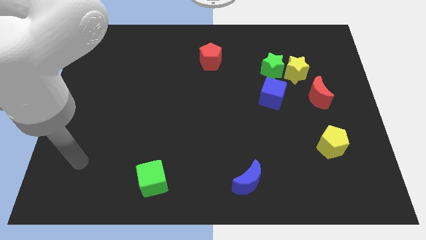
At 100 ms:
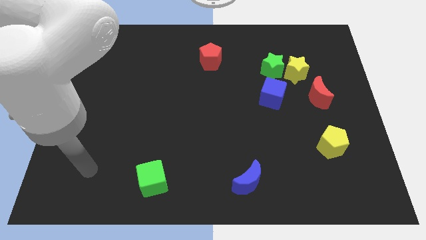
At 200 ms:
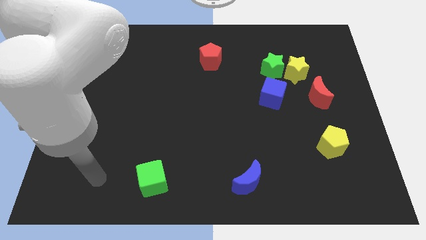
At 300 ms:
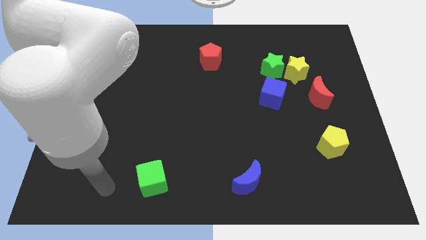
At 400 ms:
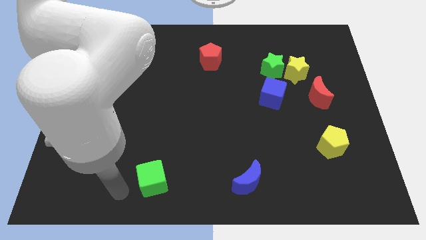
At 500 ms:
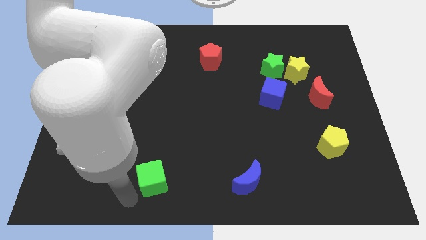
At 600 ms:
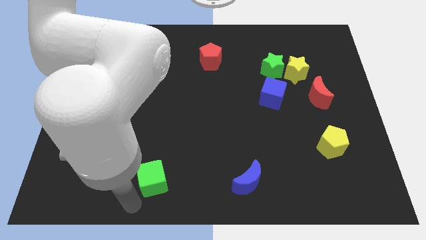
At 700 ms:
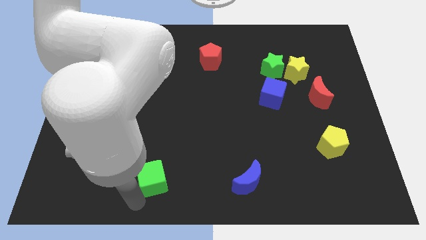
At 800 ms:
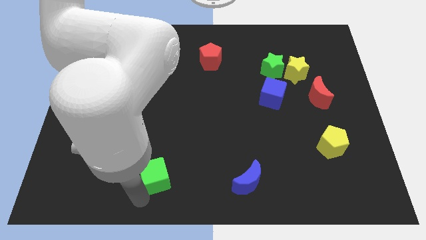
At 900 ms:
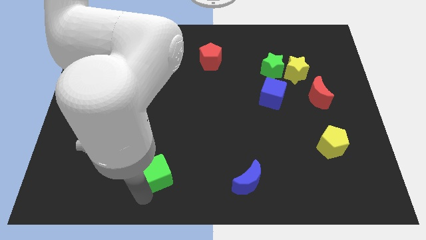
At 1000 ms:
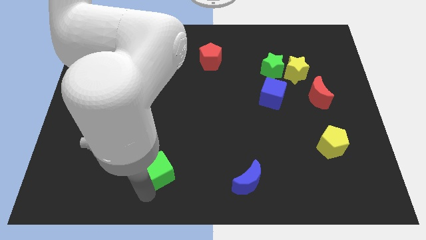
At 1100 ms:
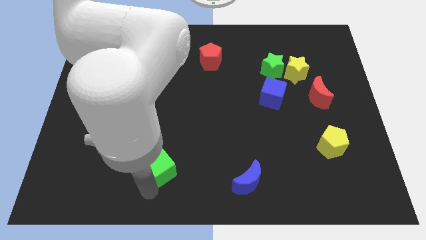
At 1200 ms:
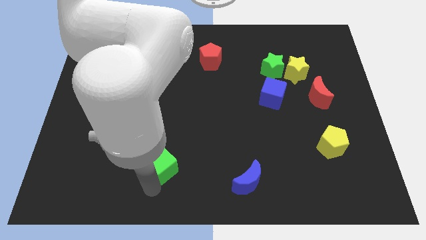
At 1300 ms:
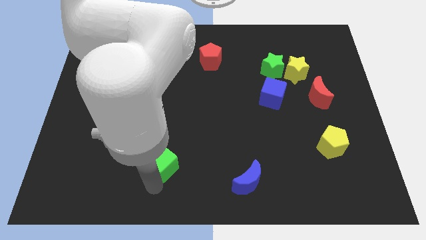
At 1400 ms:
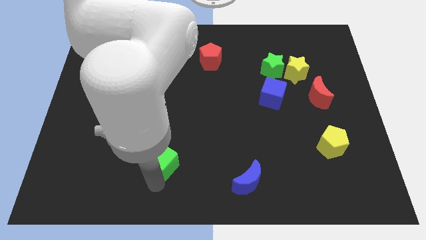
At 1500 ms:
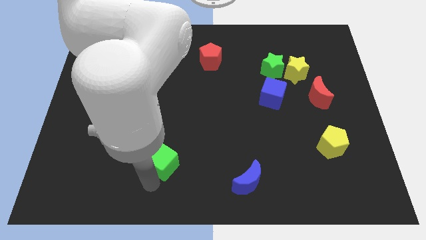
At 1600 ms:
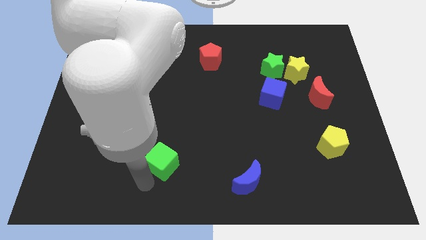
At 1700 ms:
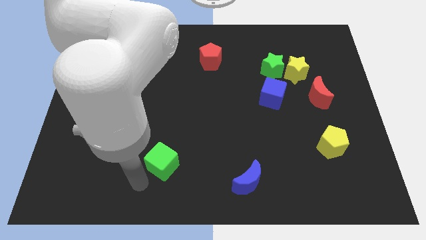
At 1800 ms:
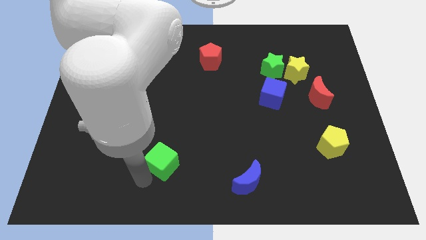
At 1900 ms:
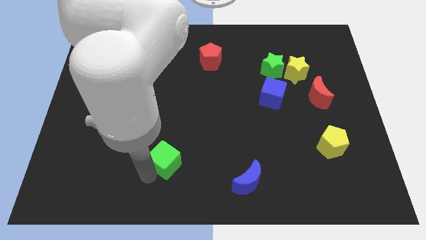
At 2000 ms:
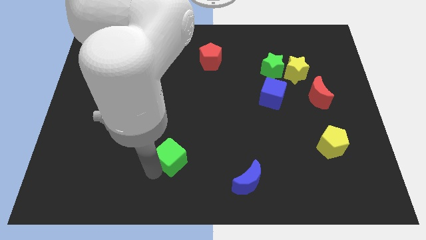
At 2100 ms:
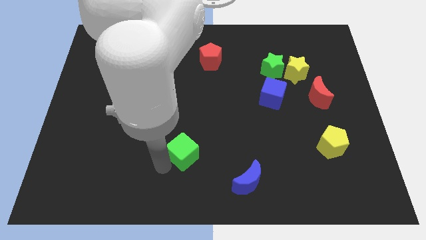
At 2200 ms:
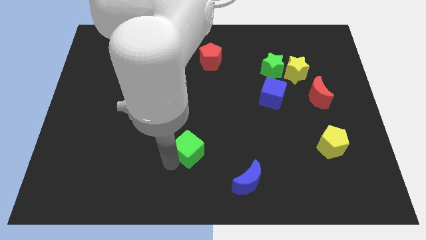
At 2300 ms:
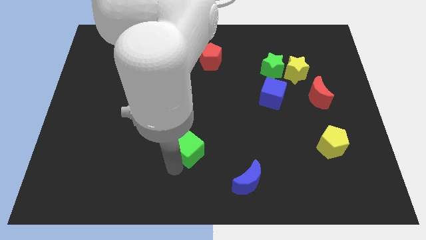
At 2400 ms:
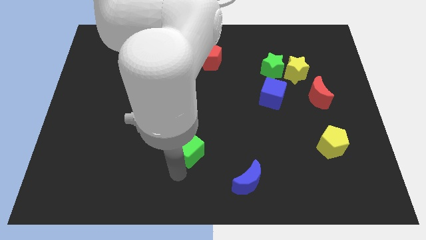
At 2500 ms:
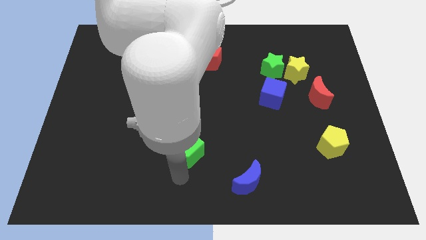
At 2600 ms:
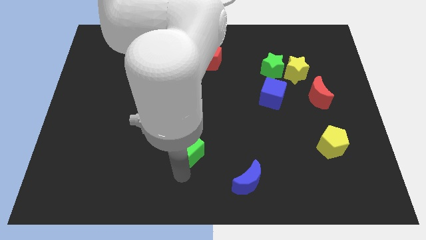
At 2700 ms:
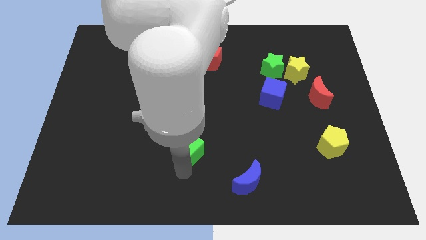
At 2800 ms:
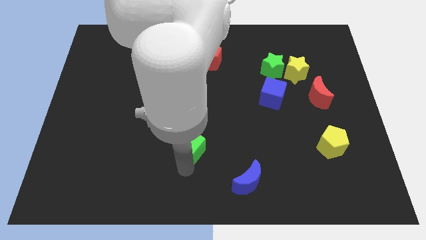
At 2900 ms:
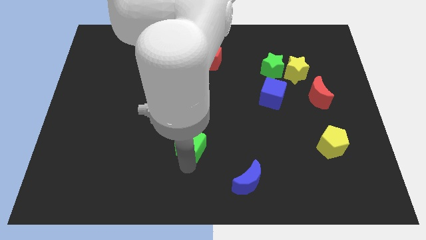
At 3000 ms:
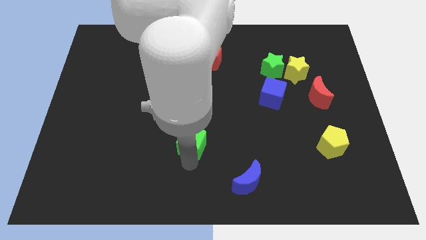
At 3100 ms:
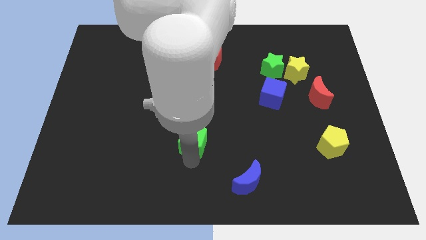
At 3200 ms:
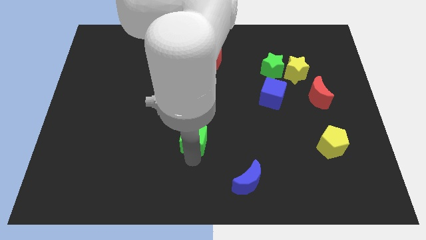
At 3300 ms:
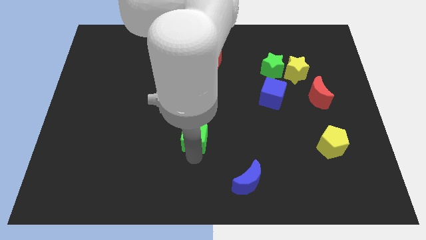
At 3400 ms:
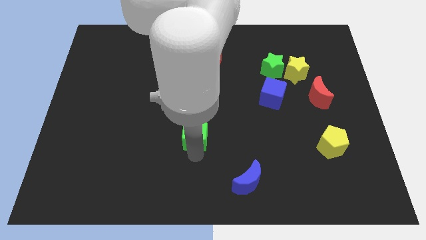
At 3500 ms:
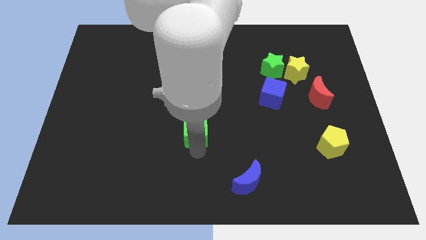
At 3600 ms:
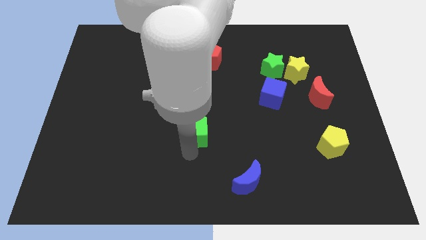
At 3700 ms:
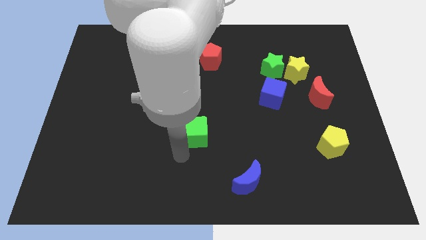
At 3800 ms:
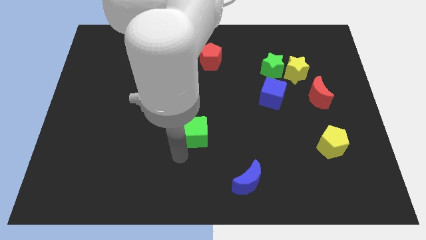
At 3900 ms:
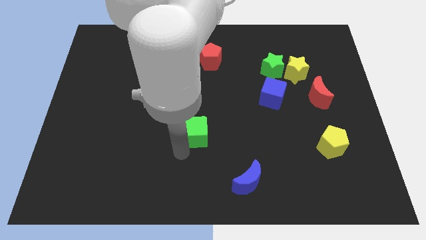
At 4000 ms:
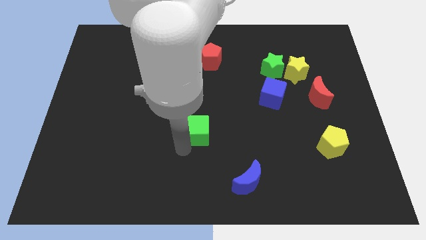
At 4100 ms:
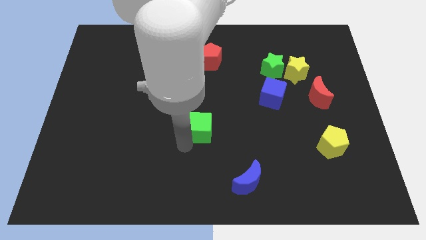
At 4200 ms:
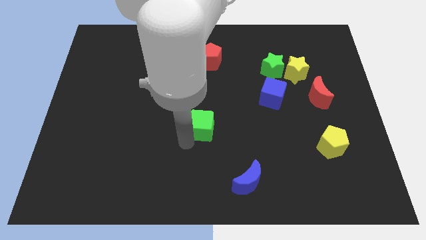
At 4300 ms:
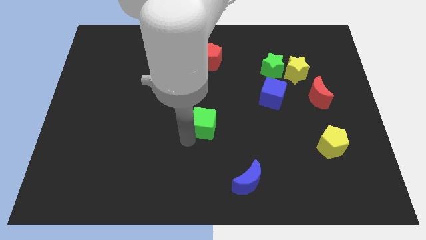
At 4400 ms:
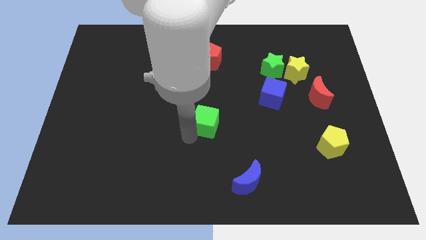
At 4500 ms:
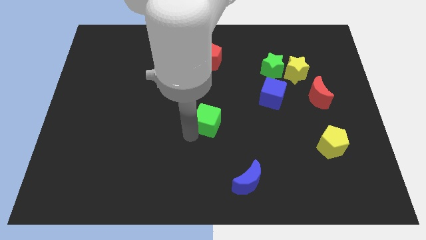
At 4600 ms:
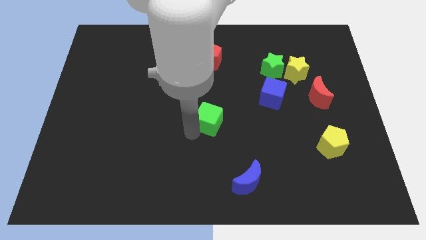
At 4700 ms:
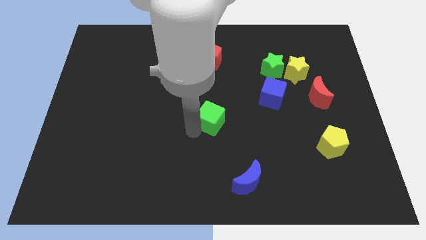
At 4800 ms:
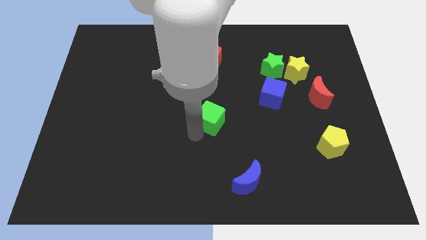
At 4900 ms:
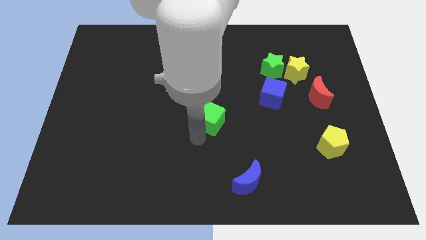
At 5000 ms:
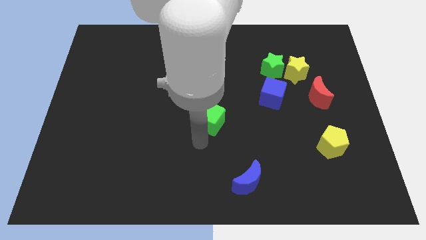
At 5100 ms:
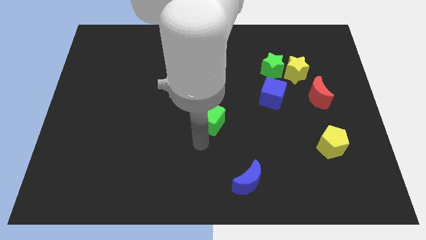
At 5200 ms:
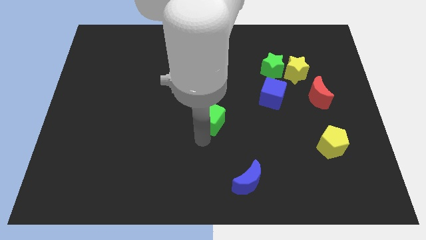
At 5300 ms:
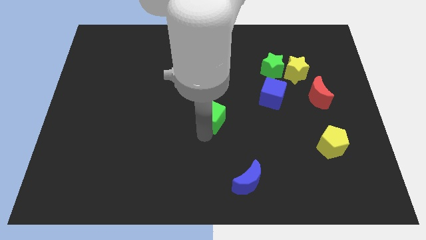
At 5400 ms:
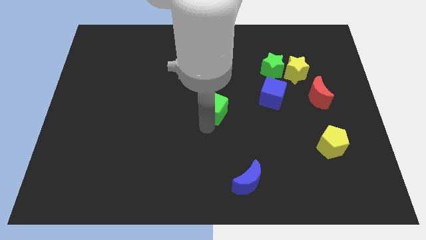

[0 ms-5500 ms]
push the green cube just left of the blue cube

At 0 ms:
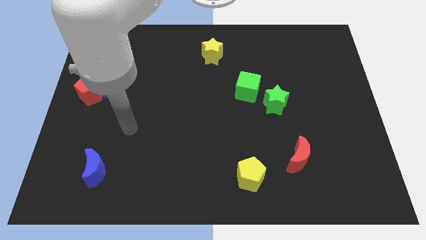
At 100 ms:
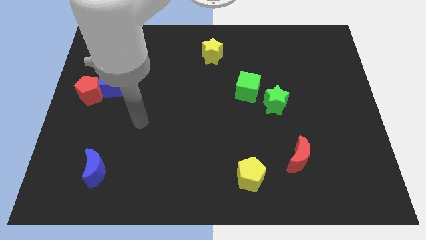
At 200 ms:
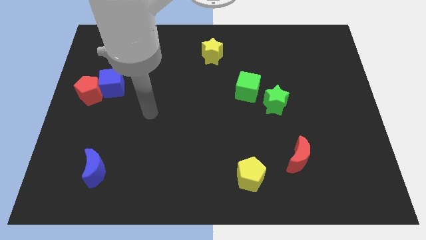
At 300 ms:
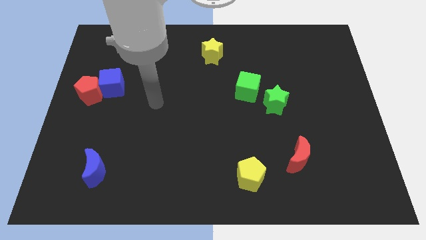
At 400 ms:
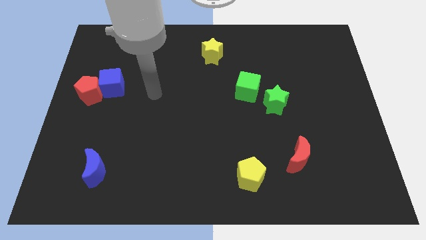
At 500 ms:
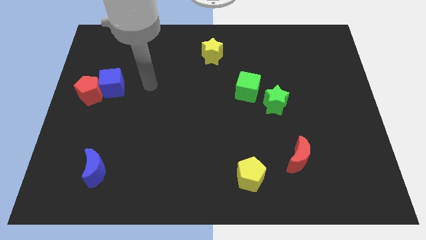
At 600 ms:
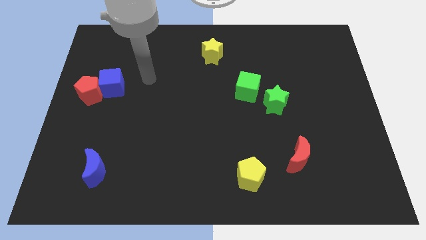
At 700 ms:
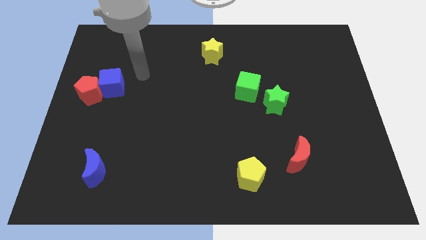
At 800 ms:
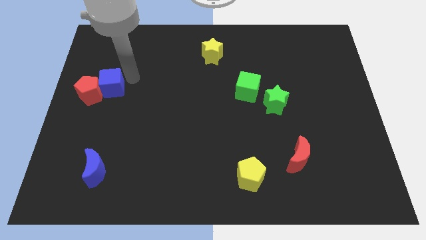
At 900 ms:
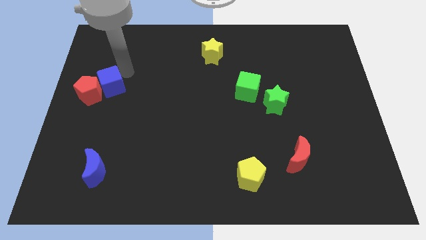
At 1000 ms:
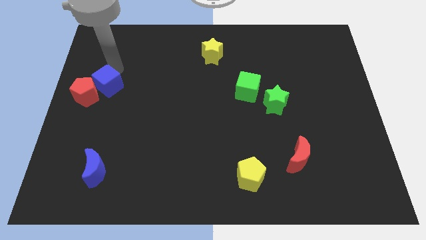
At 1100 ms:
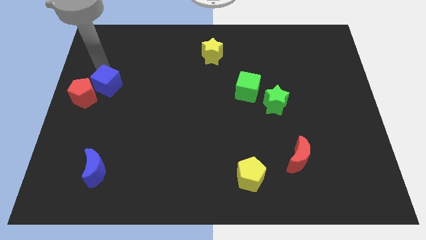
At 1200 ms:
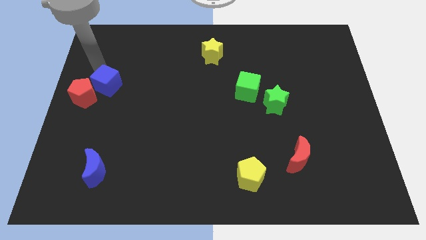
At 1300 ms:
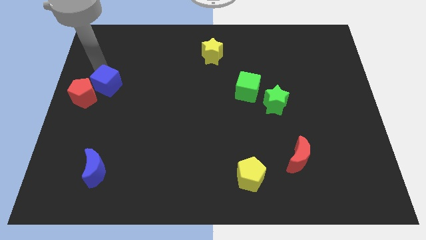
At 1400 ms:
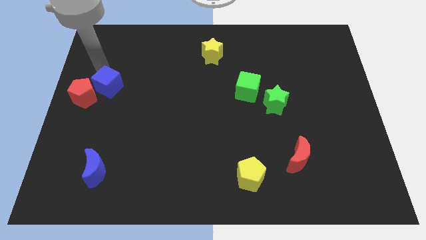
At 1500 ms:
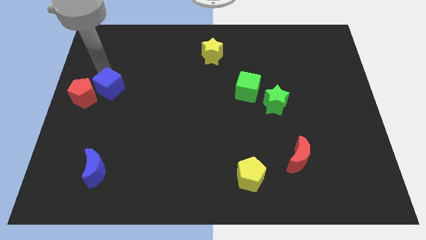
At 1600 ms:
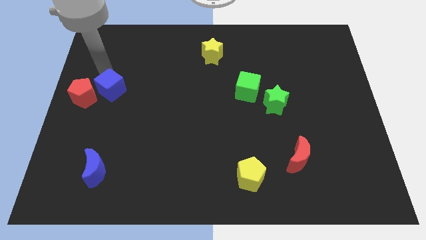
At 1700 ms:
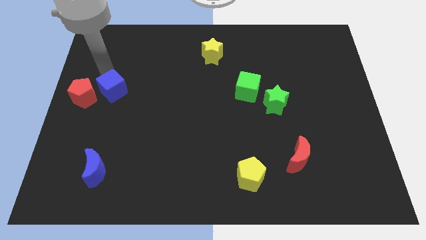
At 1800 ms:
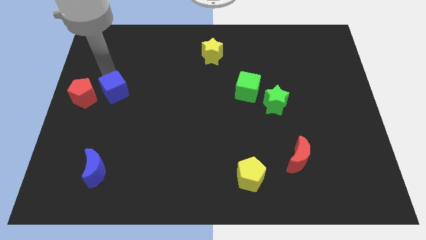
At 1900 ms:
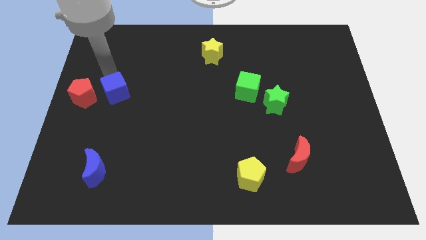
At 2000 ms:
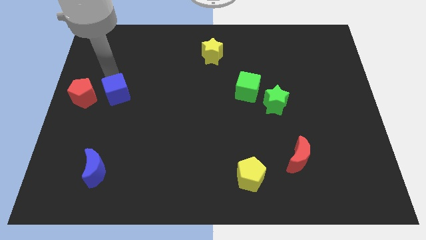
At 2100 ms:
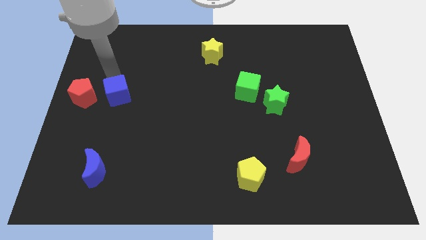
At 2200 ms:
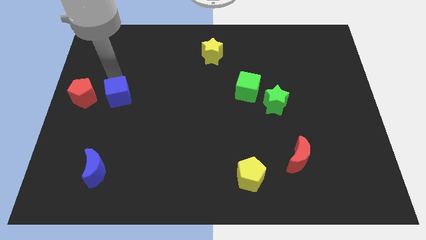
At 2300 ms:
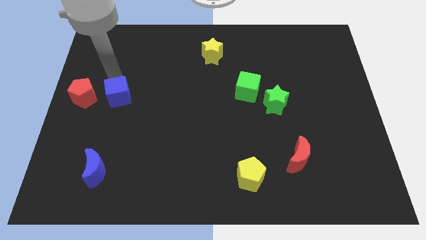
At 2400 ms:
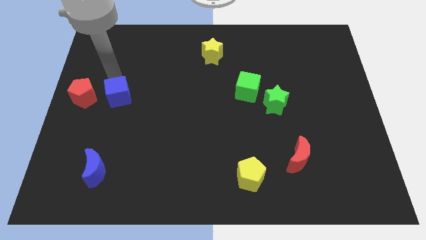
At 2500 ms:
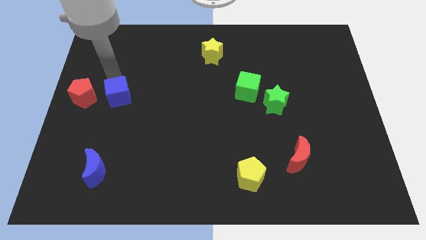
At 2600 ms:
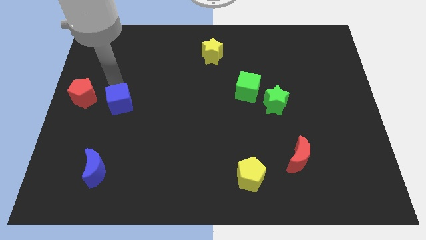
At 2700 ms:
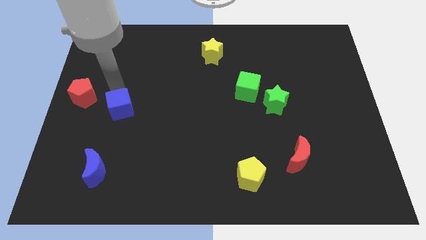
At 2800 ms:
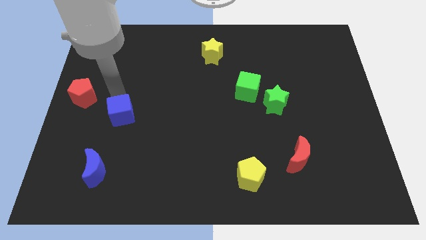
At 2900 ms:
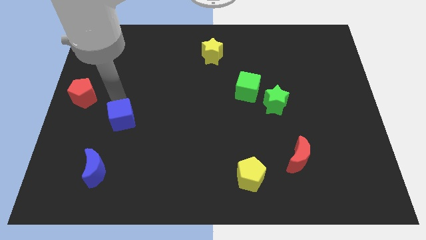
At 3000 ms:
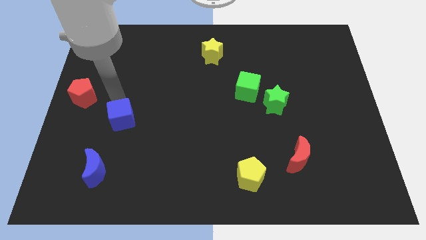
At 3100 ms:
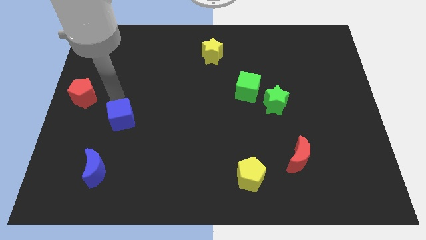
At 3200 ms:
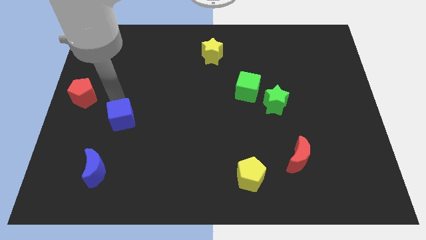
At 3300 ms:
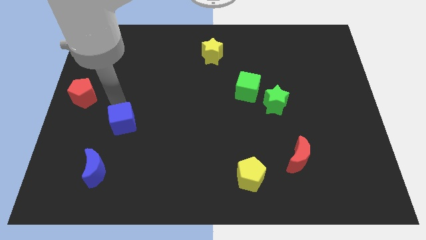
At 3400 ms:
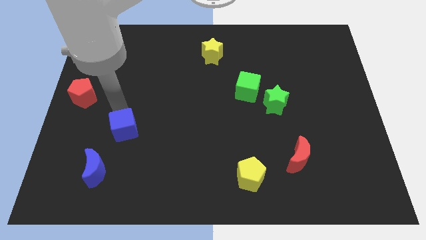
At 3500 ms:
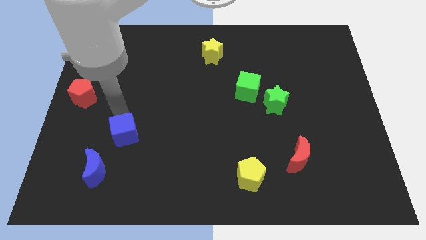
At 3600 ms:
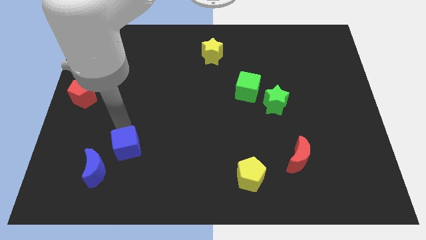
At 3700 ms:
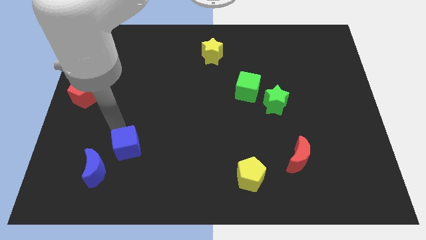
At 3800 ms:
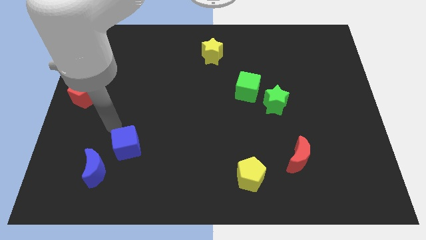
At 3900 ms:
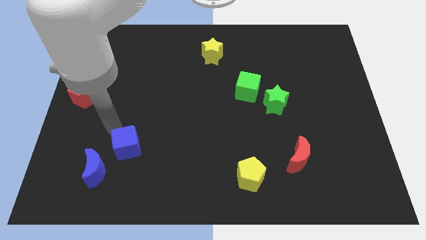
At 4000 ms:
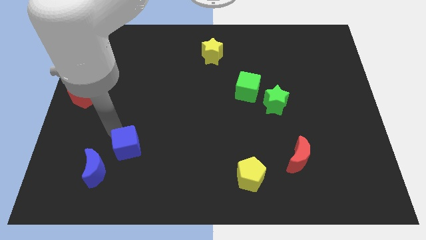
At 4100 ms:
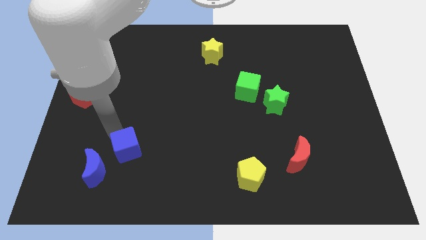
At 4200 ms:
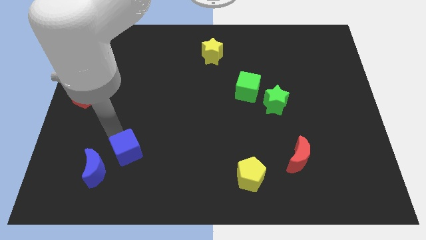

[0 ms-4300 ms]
push the blue cube to the right of the blue moon
